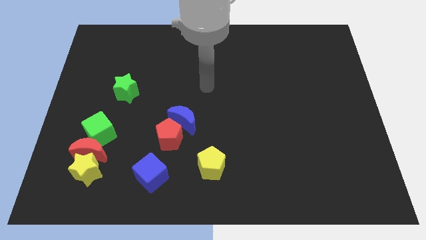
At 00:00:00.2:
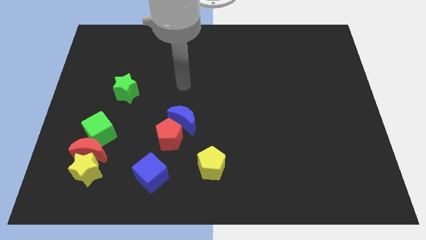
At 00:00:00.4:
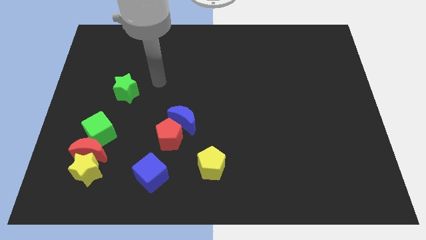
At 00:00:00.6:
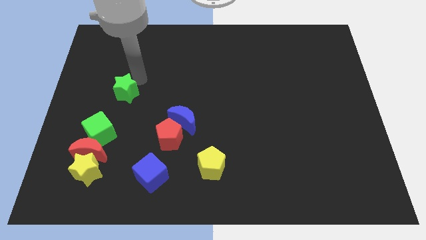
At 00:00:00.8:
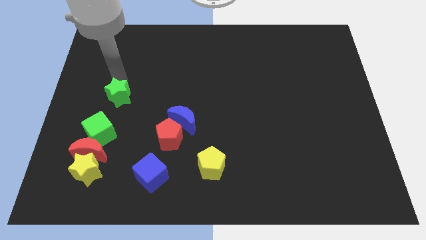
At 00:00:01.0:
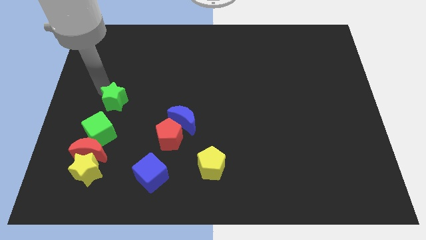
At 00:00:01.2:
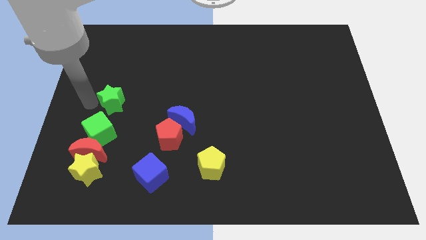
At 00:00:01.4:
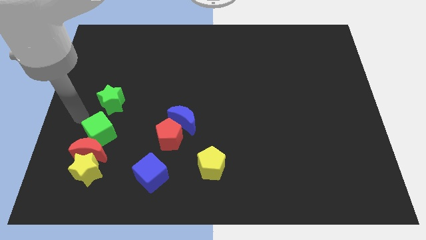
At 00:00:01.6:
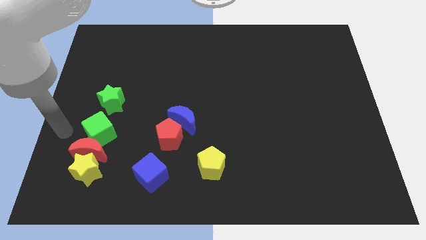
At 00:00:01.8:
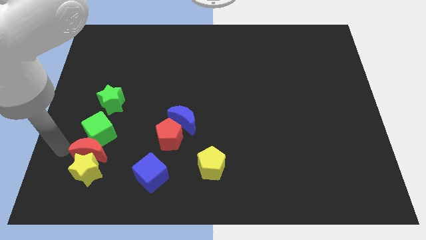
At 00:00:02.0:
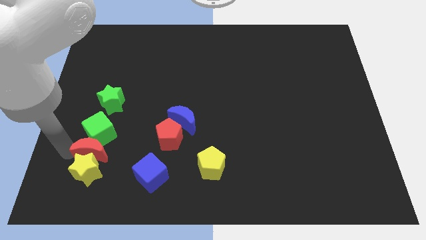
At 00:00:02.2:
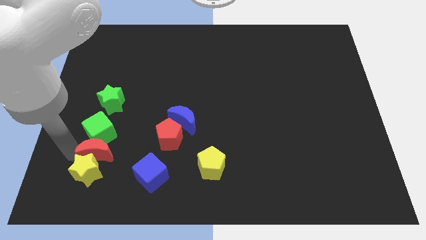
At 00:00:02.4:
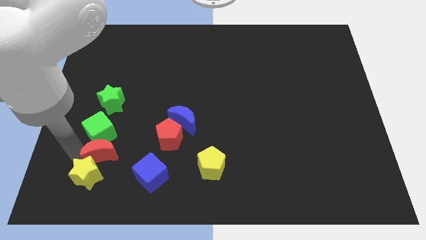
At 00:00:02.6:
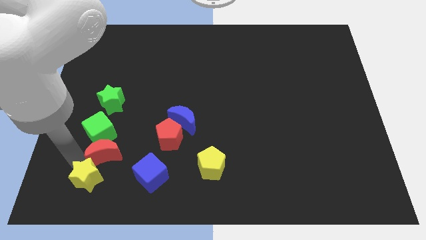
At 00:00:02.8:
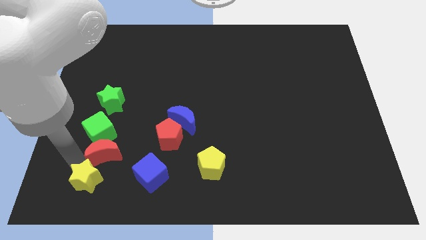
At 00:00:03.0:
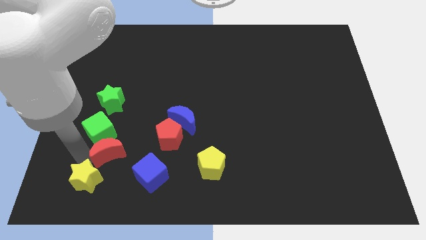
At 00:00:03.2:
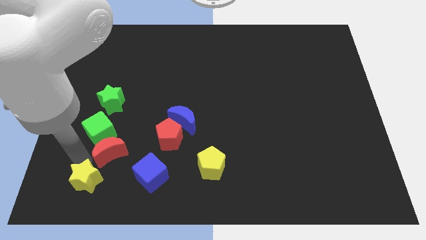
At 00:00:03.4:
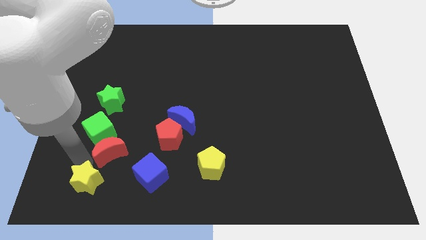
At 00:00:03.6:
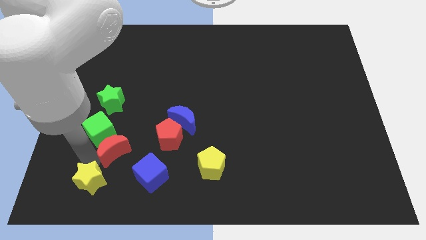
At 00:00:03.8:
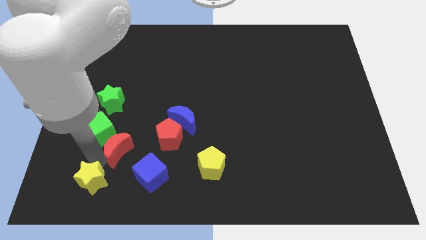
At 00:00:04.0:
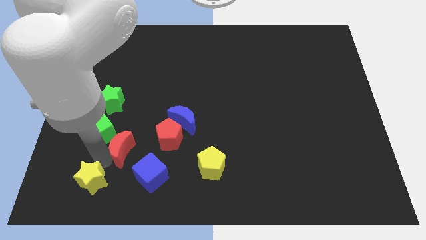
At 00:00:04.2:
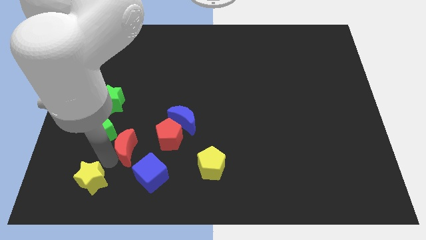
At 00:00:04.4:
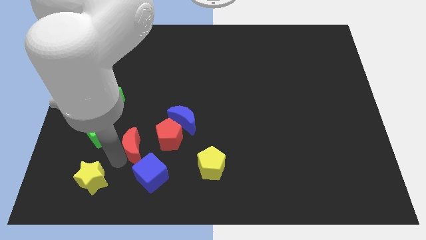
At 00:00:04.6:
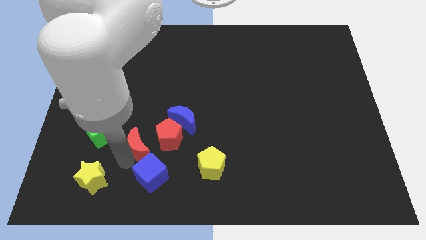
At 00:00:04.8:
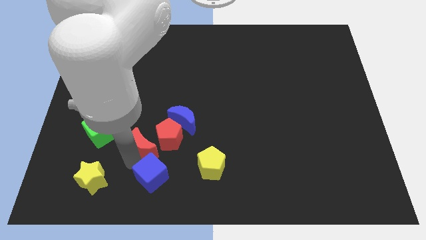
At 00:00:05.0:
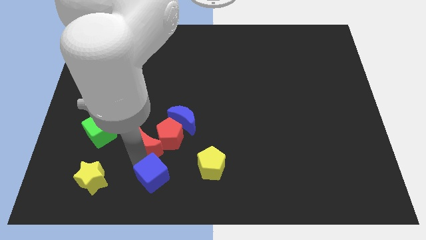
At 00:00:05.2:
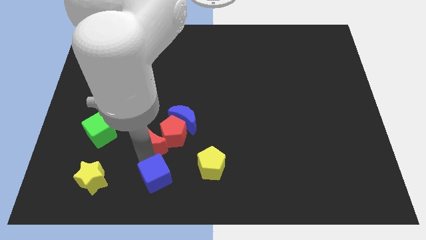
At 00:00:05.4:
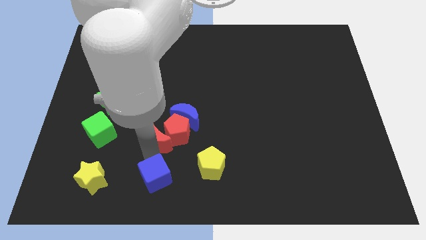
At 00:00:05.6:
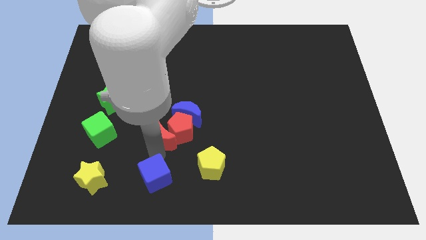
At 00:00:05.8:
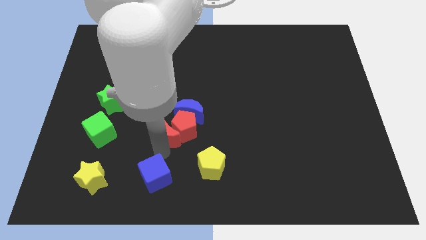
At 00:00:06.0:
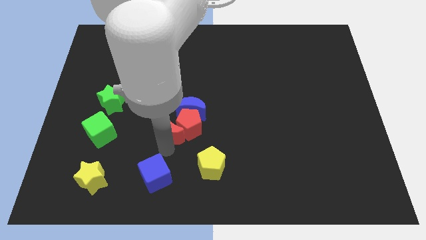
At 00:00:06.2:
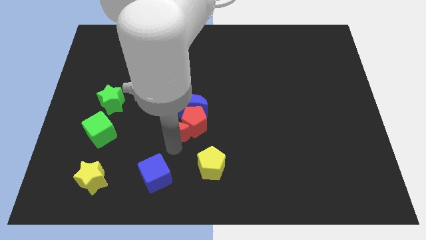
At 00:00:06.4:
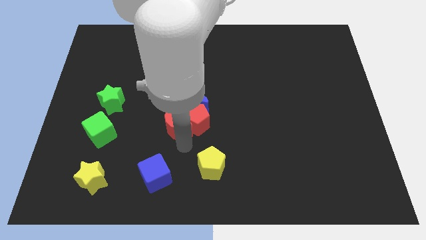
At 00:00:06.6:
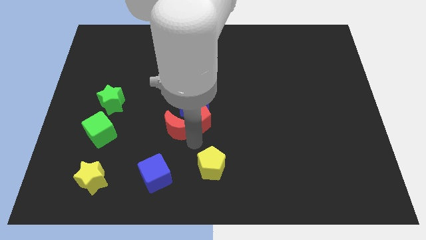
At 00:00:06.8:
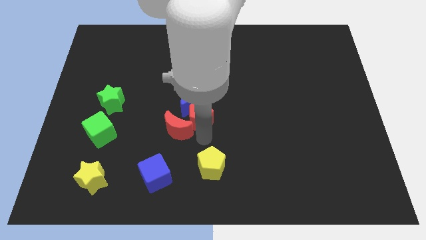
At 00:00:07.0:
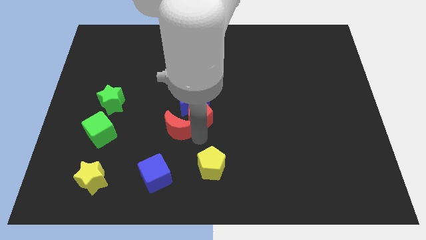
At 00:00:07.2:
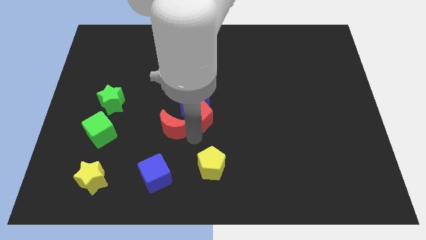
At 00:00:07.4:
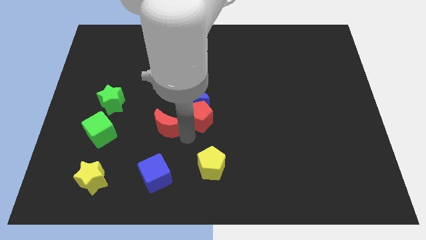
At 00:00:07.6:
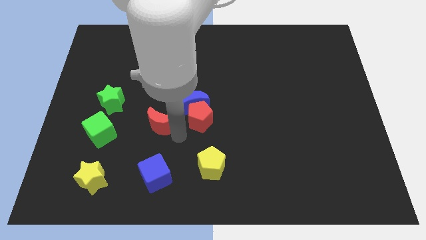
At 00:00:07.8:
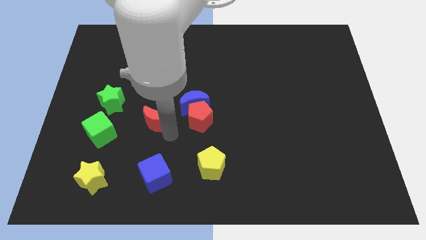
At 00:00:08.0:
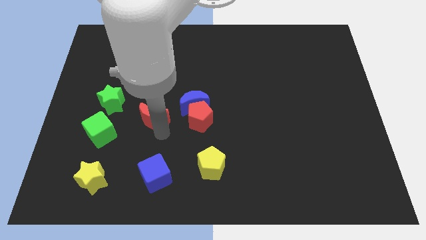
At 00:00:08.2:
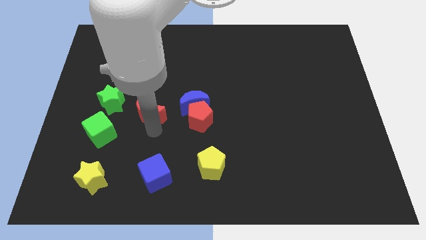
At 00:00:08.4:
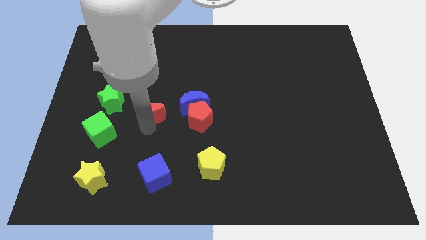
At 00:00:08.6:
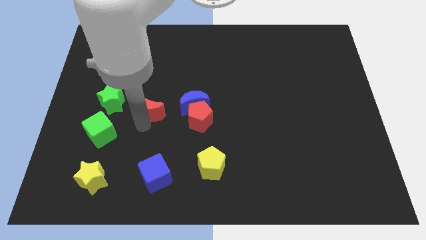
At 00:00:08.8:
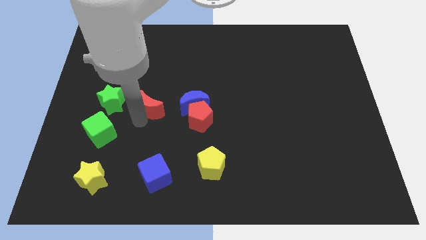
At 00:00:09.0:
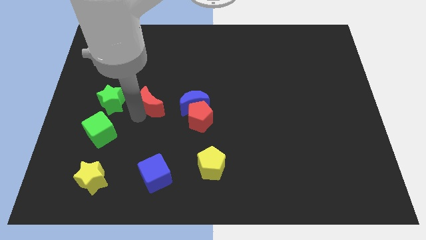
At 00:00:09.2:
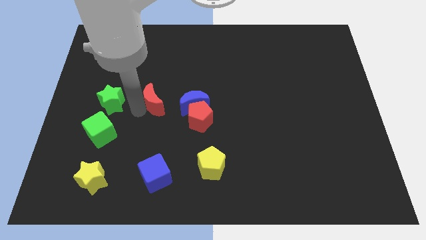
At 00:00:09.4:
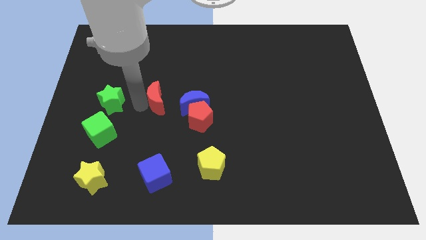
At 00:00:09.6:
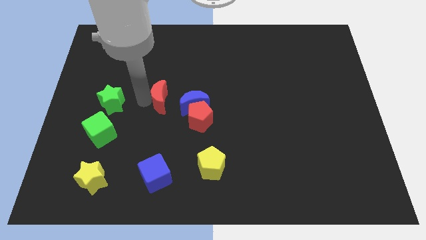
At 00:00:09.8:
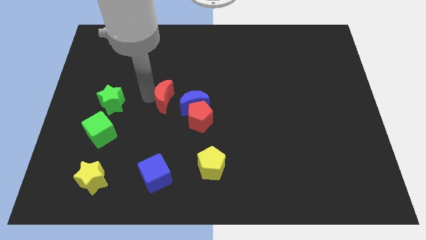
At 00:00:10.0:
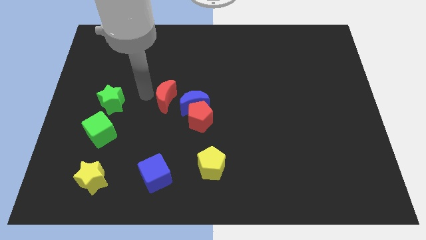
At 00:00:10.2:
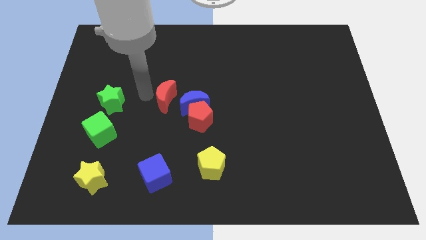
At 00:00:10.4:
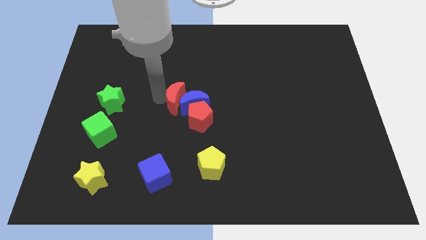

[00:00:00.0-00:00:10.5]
push the red moon towards the blue moon

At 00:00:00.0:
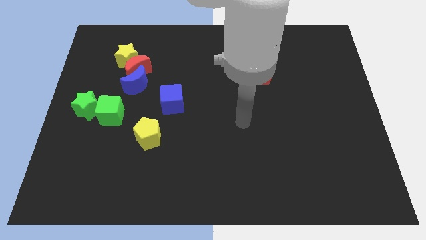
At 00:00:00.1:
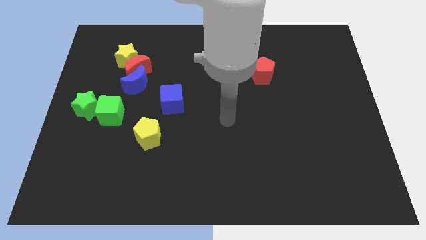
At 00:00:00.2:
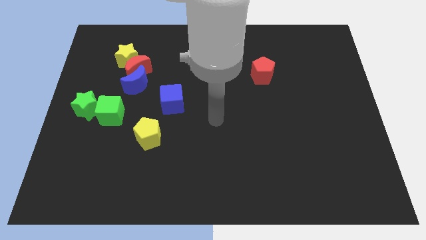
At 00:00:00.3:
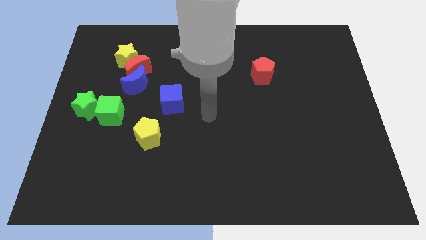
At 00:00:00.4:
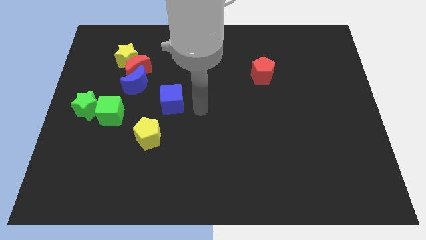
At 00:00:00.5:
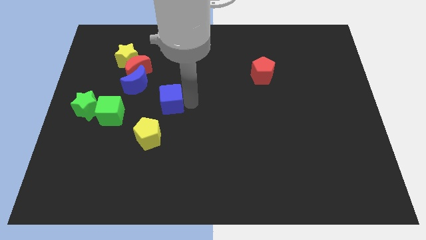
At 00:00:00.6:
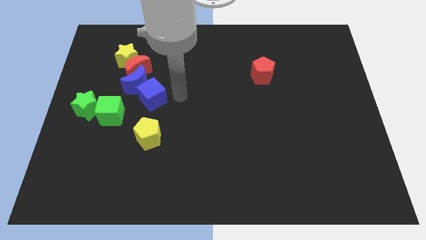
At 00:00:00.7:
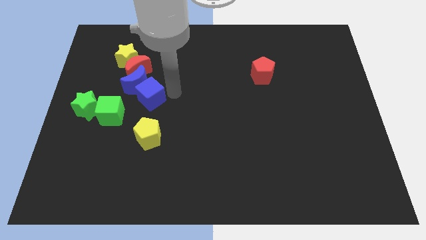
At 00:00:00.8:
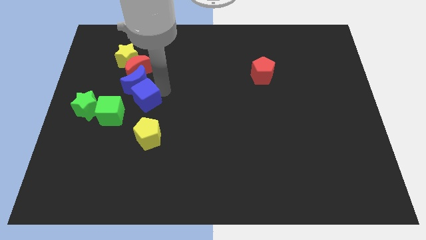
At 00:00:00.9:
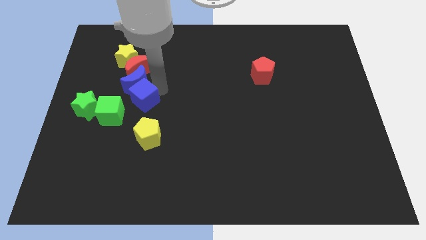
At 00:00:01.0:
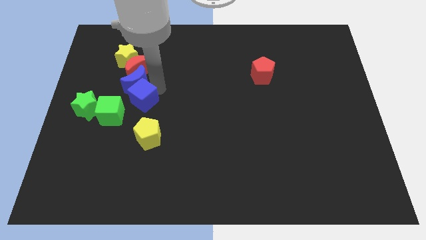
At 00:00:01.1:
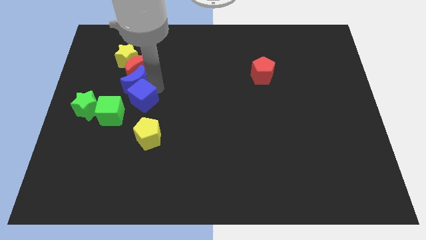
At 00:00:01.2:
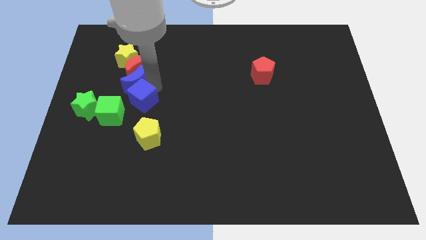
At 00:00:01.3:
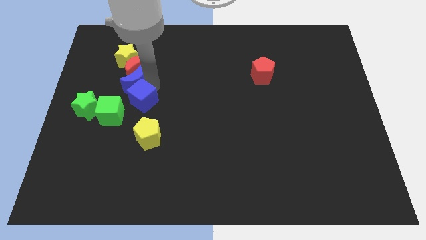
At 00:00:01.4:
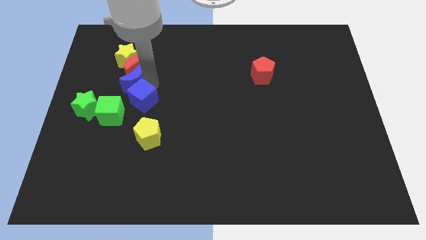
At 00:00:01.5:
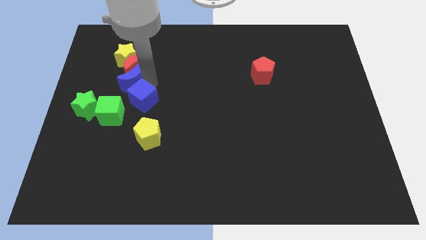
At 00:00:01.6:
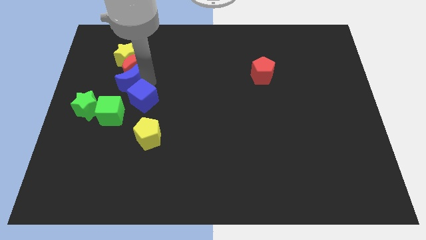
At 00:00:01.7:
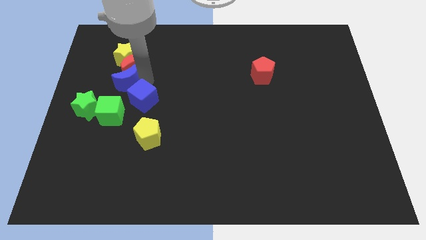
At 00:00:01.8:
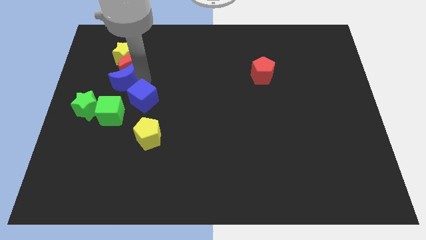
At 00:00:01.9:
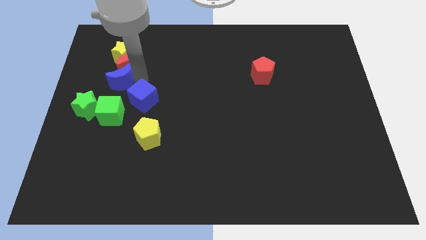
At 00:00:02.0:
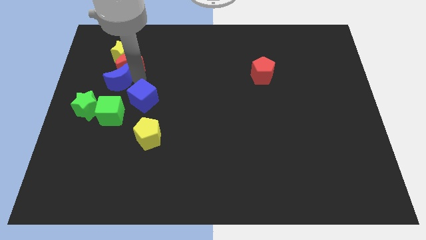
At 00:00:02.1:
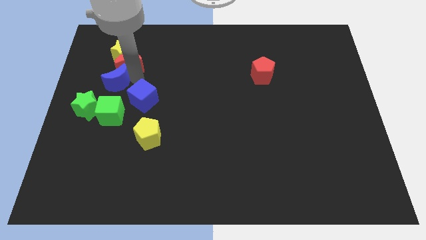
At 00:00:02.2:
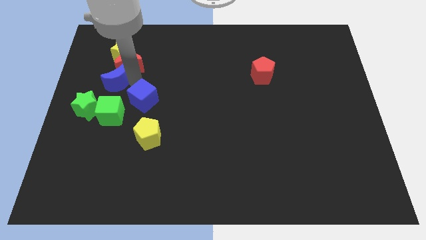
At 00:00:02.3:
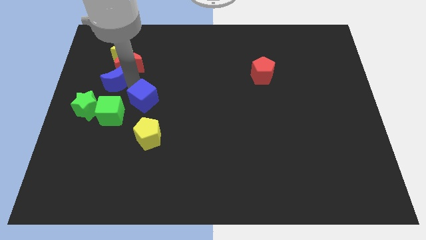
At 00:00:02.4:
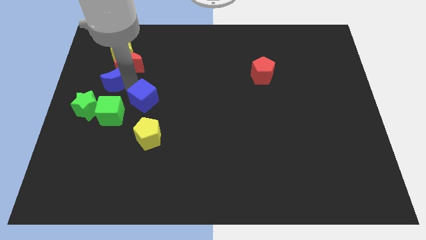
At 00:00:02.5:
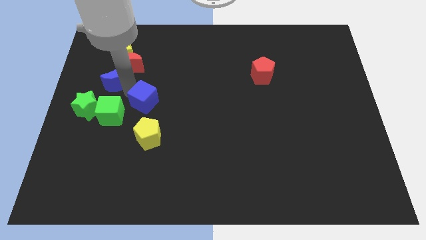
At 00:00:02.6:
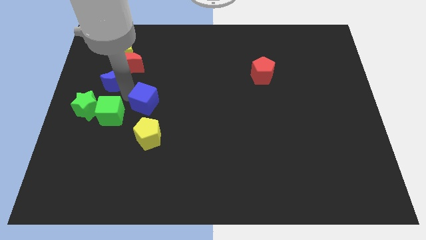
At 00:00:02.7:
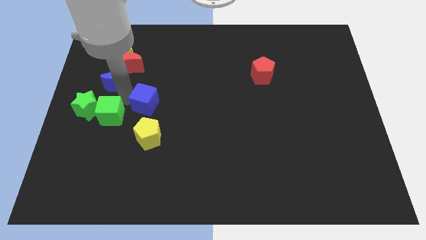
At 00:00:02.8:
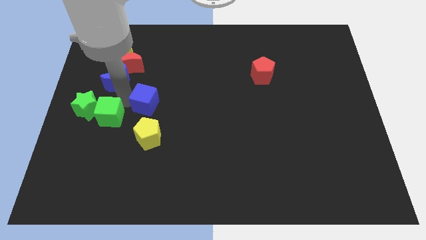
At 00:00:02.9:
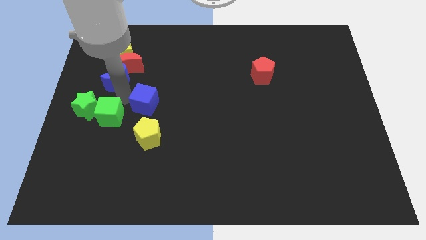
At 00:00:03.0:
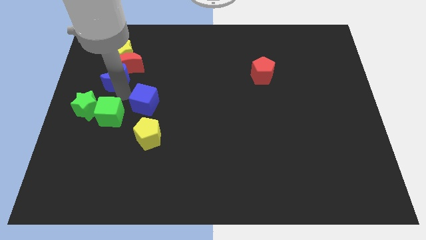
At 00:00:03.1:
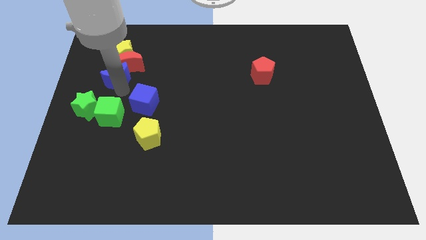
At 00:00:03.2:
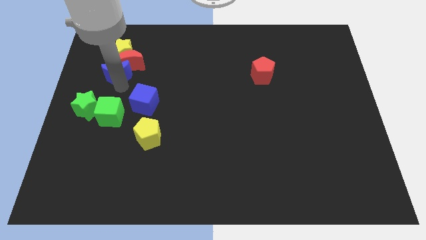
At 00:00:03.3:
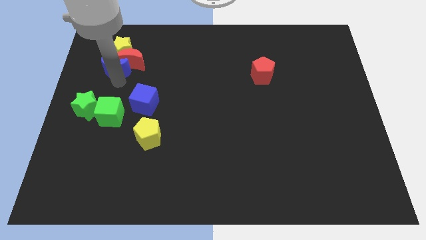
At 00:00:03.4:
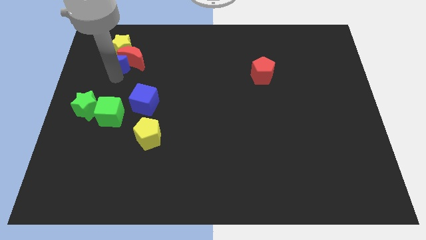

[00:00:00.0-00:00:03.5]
push the blue moon towards the yellow star
